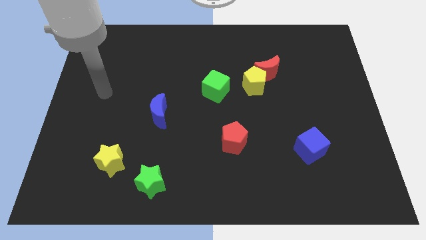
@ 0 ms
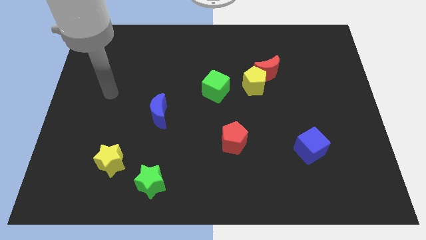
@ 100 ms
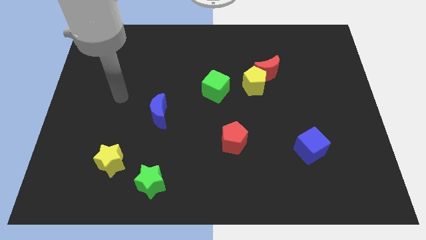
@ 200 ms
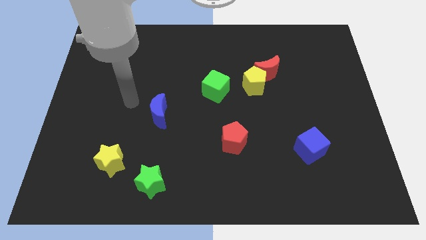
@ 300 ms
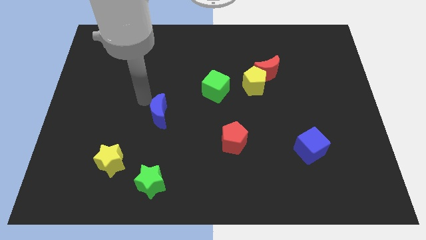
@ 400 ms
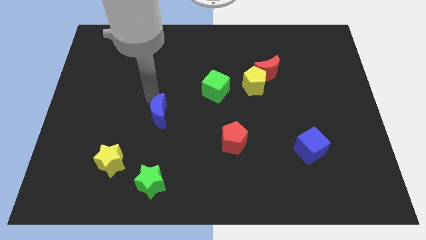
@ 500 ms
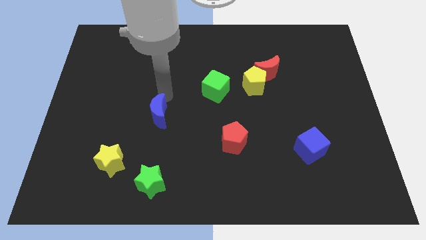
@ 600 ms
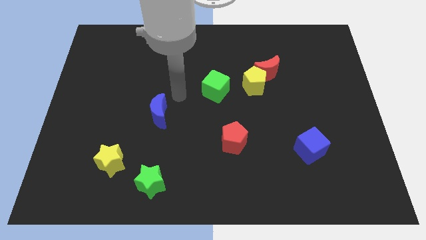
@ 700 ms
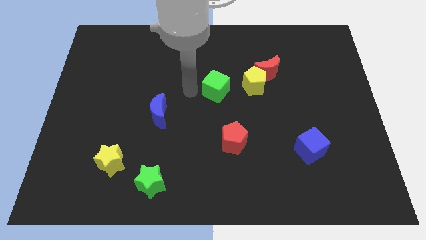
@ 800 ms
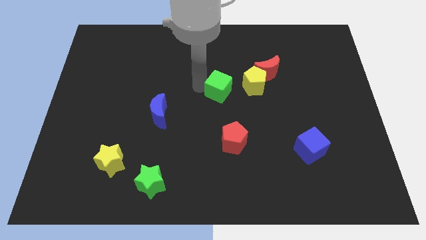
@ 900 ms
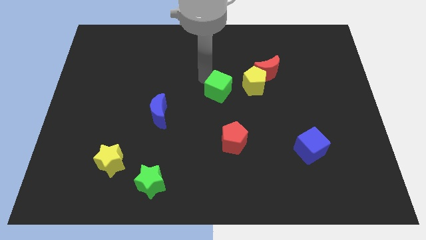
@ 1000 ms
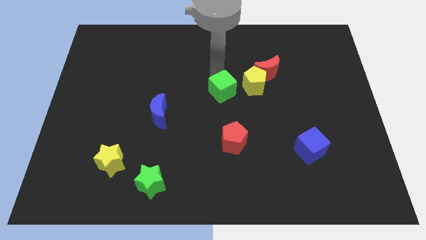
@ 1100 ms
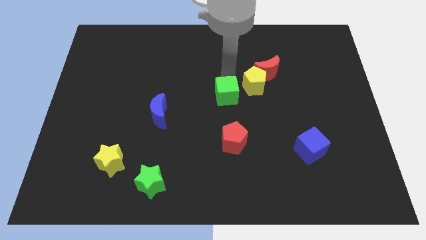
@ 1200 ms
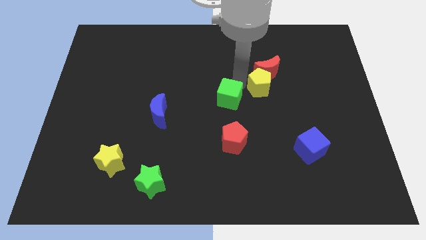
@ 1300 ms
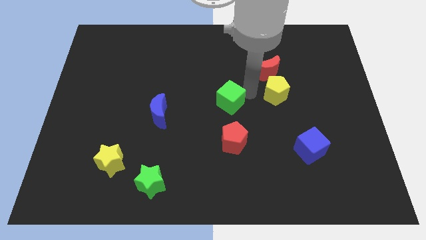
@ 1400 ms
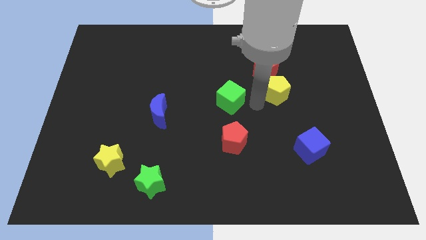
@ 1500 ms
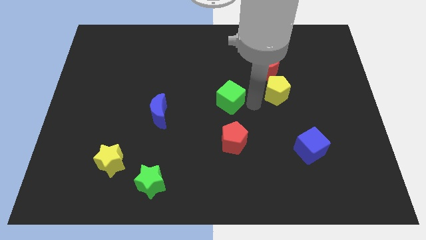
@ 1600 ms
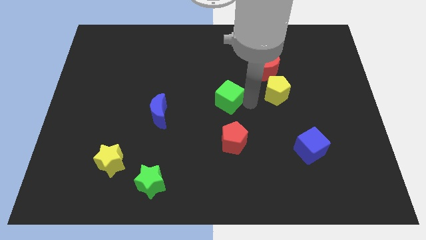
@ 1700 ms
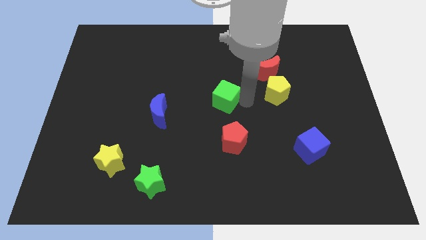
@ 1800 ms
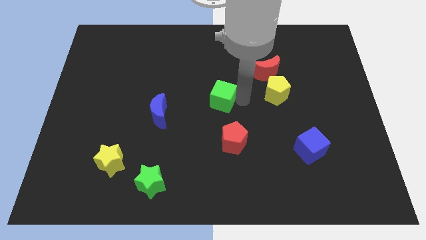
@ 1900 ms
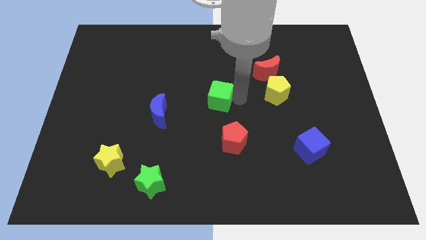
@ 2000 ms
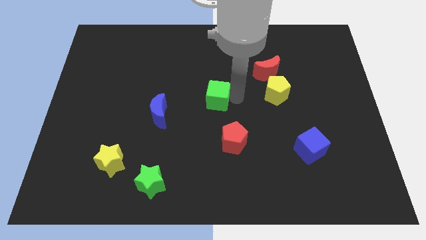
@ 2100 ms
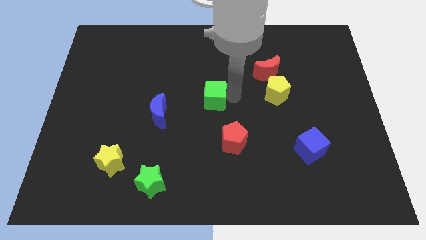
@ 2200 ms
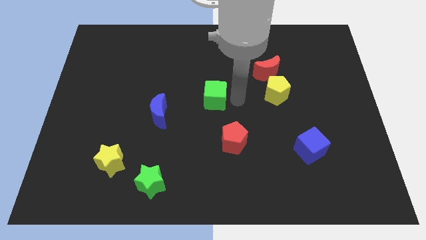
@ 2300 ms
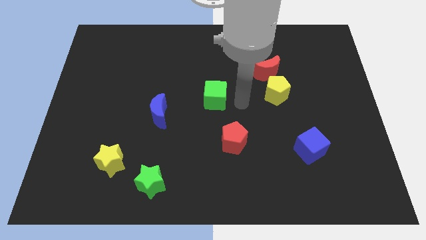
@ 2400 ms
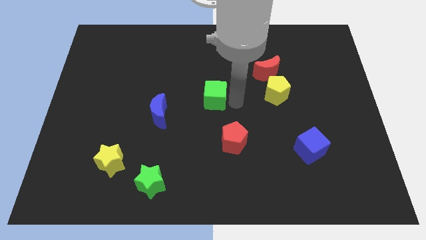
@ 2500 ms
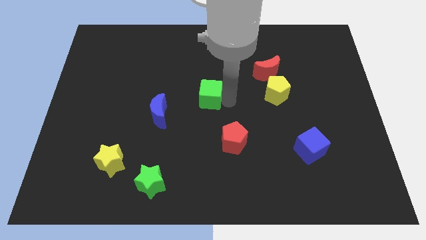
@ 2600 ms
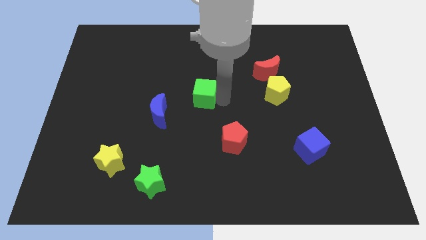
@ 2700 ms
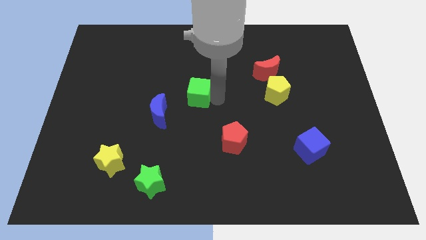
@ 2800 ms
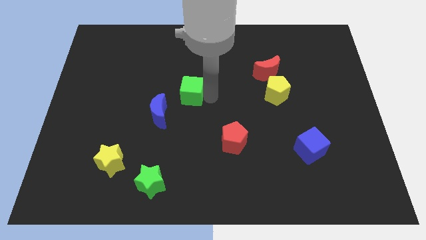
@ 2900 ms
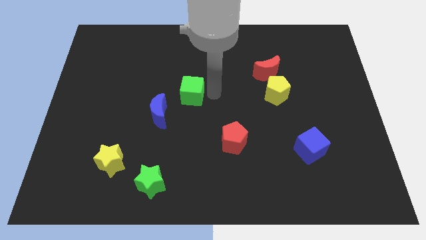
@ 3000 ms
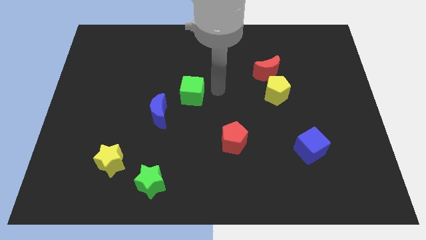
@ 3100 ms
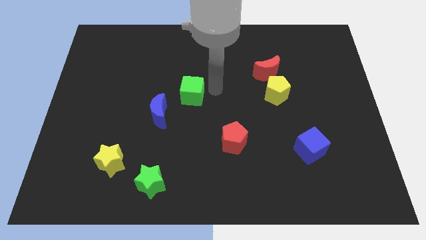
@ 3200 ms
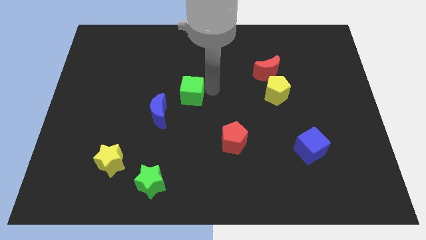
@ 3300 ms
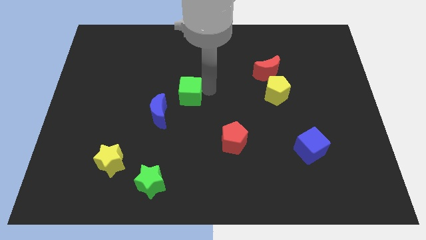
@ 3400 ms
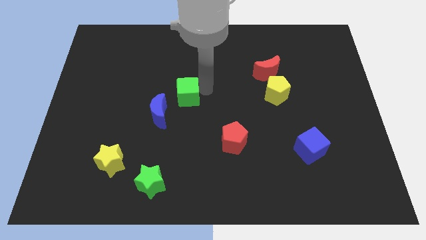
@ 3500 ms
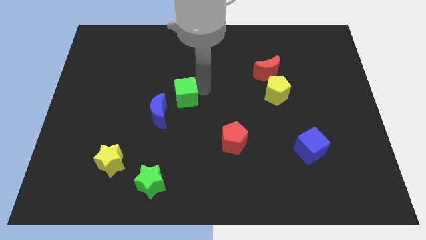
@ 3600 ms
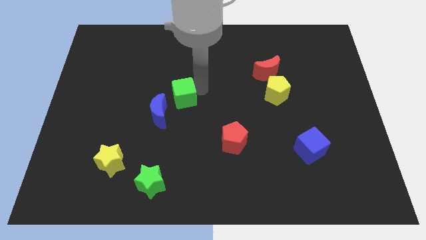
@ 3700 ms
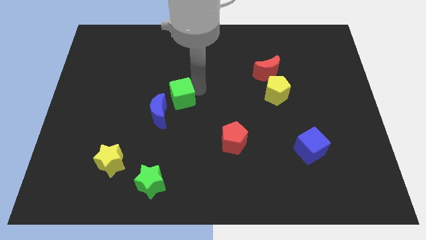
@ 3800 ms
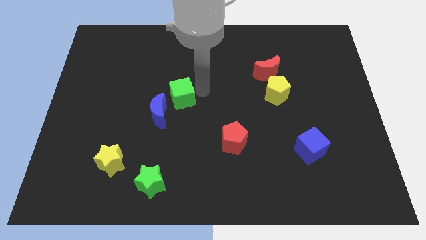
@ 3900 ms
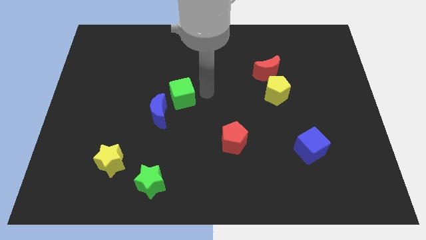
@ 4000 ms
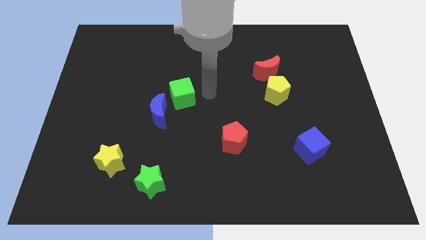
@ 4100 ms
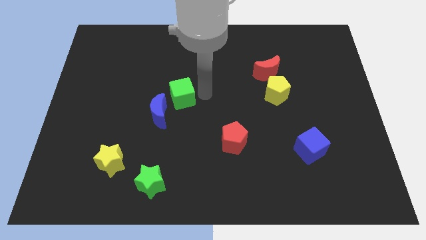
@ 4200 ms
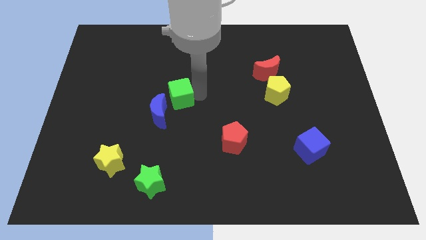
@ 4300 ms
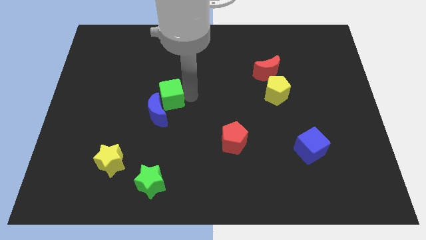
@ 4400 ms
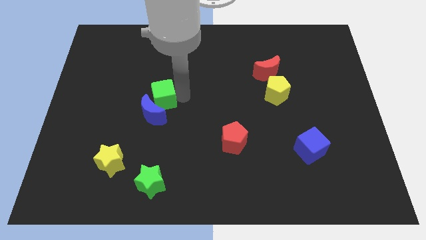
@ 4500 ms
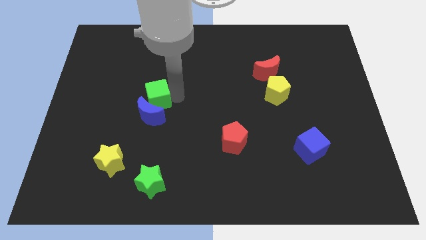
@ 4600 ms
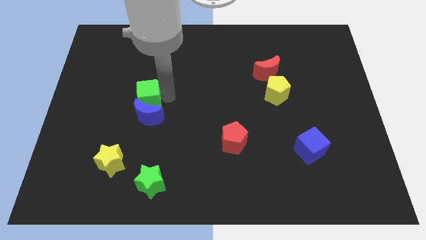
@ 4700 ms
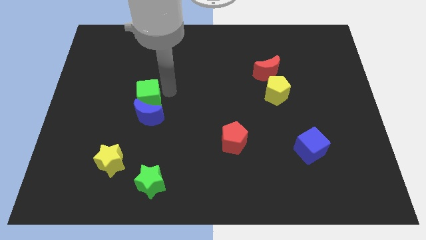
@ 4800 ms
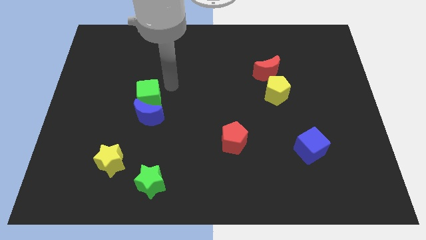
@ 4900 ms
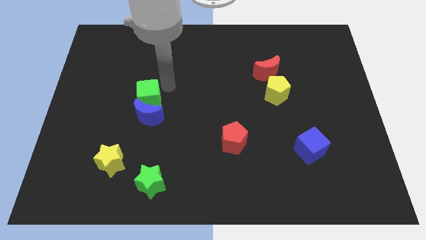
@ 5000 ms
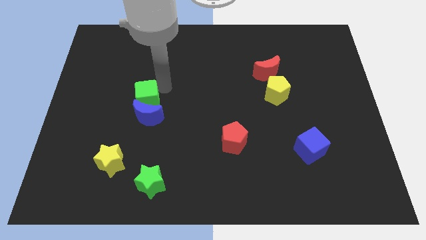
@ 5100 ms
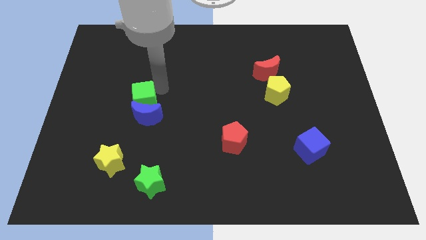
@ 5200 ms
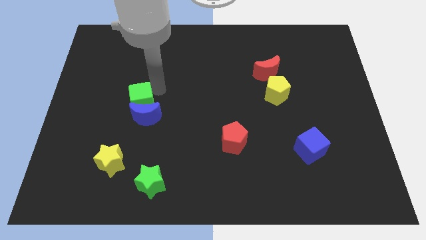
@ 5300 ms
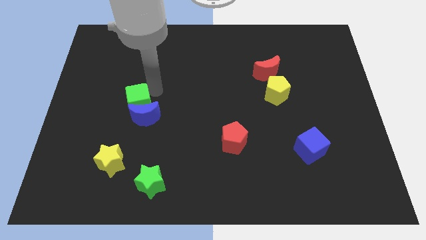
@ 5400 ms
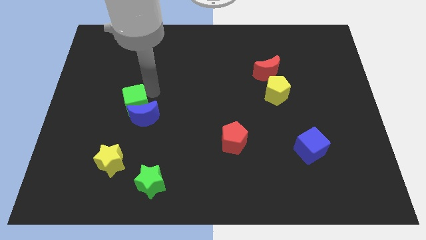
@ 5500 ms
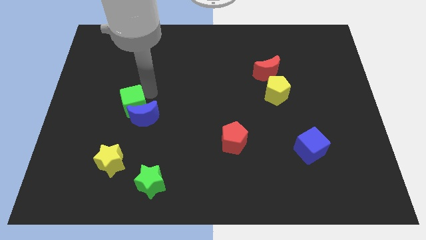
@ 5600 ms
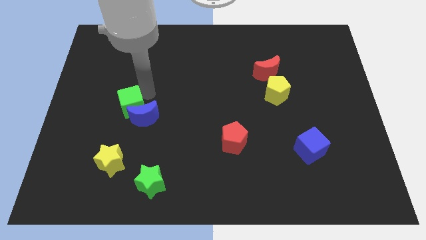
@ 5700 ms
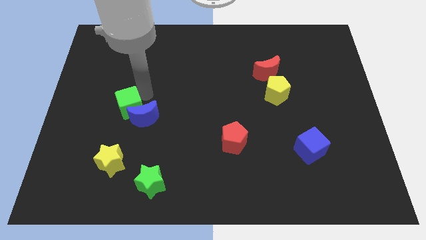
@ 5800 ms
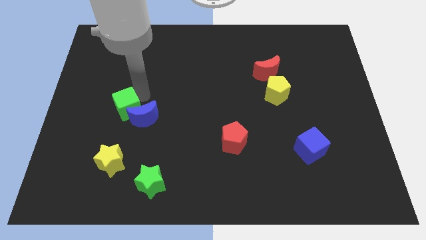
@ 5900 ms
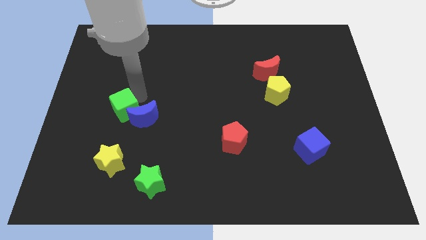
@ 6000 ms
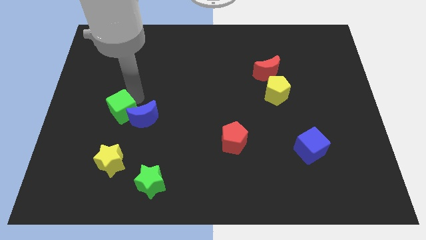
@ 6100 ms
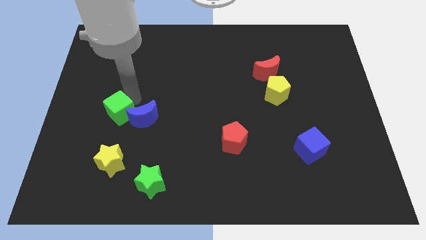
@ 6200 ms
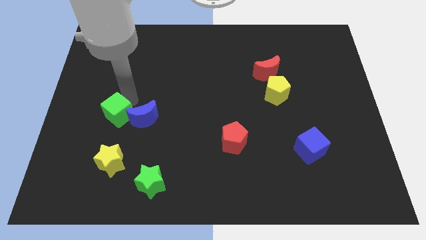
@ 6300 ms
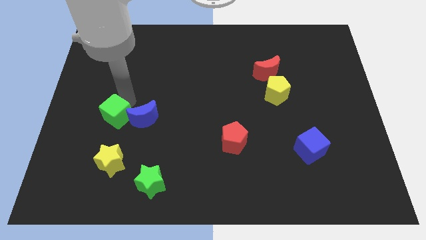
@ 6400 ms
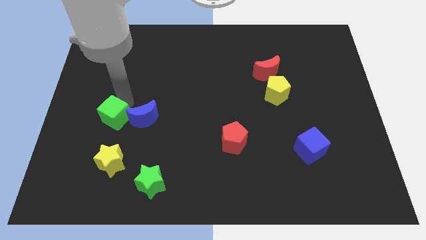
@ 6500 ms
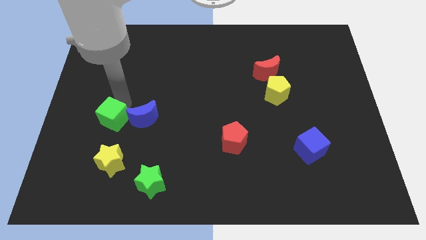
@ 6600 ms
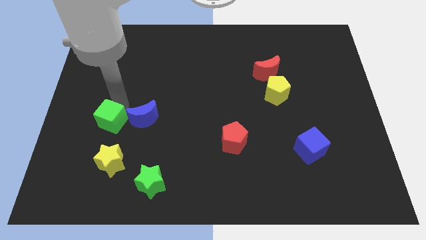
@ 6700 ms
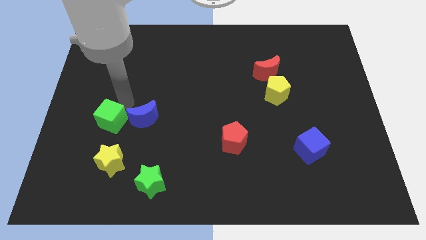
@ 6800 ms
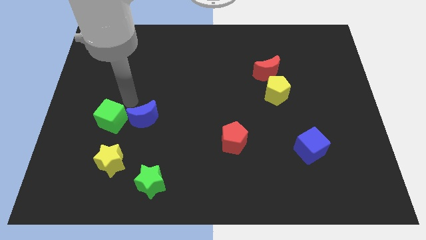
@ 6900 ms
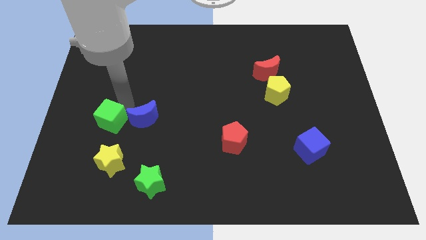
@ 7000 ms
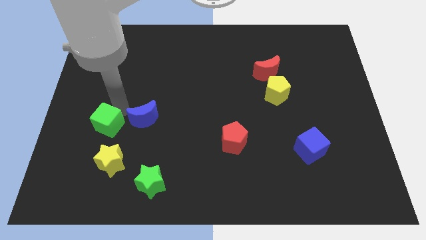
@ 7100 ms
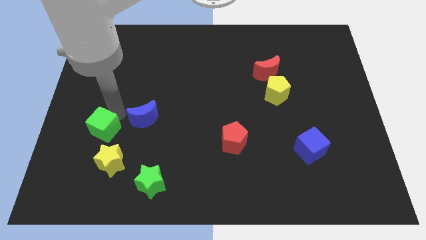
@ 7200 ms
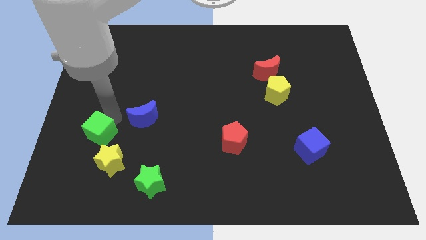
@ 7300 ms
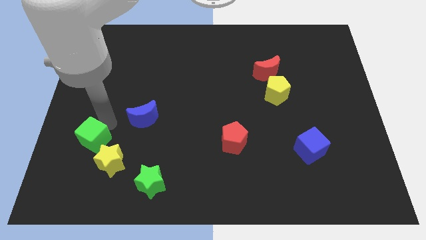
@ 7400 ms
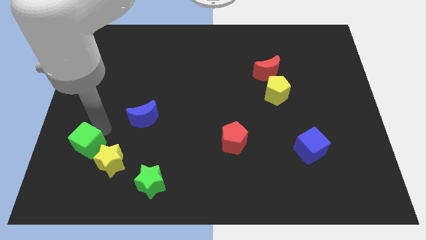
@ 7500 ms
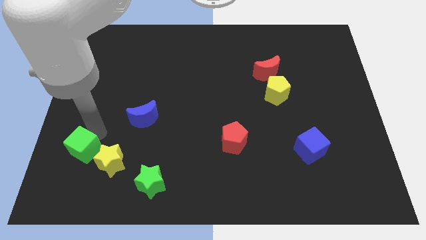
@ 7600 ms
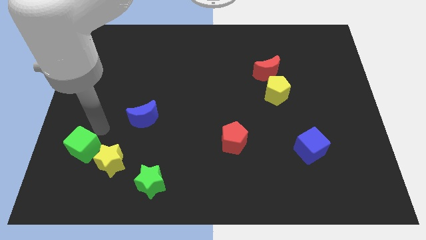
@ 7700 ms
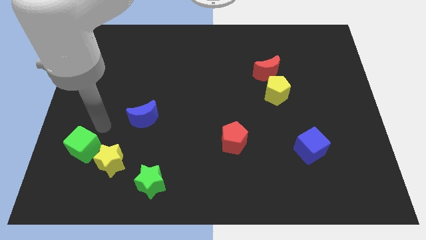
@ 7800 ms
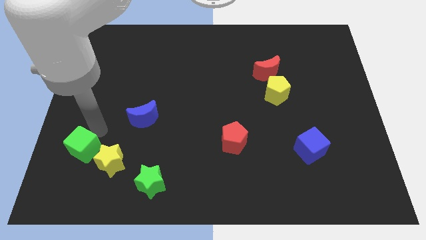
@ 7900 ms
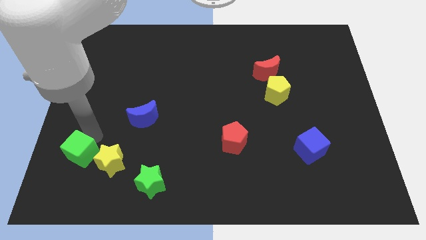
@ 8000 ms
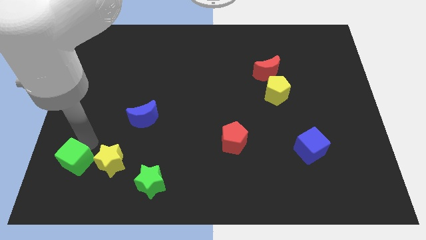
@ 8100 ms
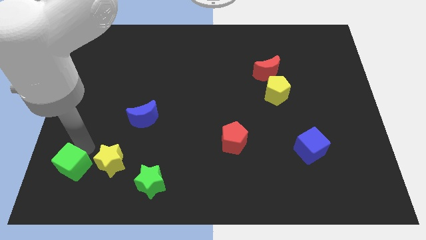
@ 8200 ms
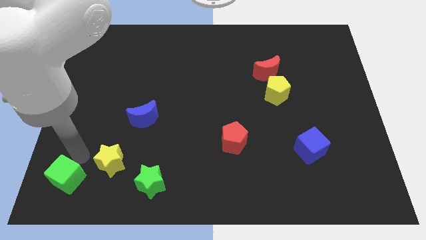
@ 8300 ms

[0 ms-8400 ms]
put the green cube to the lower left corner
